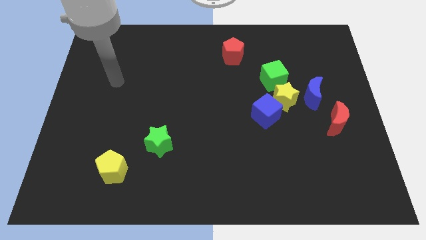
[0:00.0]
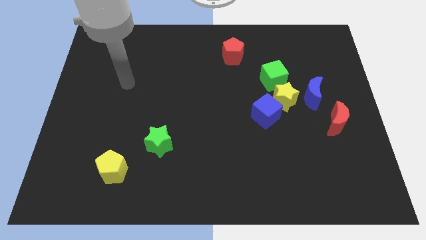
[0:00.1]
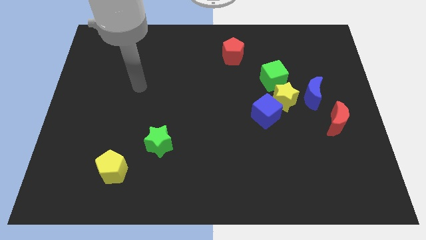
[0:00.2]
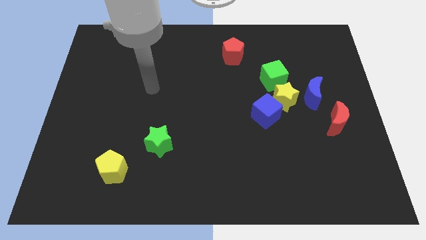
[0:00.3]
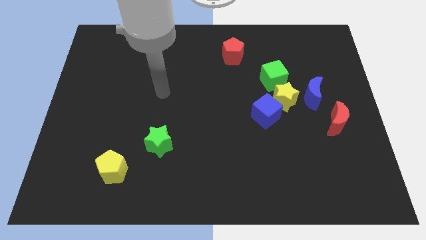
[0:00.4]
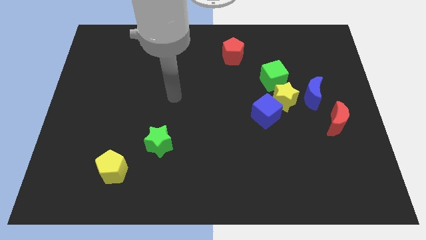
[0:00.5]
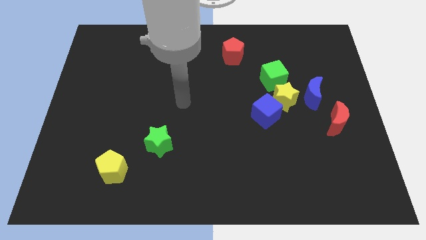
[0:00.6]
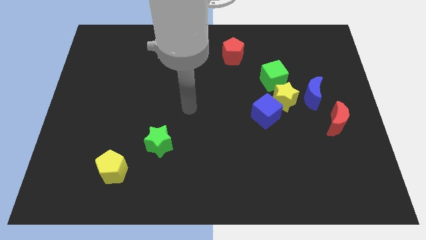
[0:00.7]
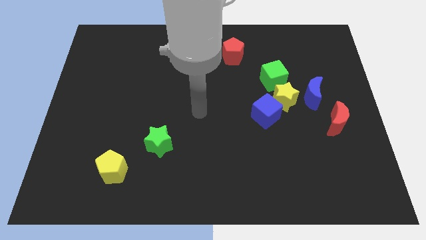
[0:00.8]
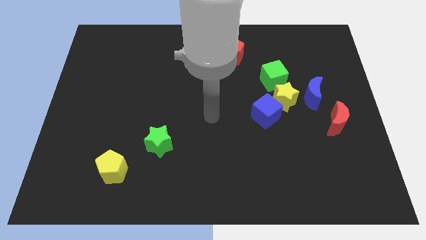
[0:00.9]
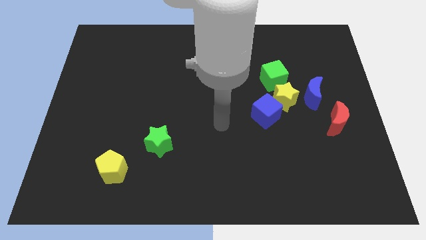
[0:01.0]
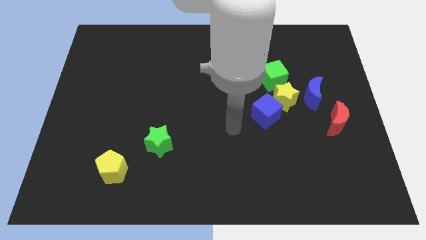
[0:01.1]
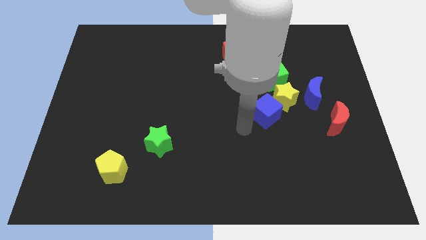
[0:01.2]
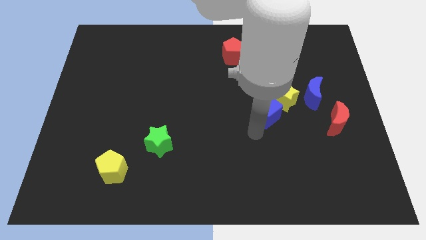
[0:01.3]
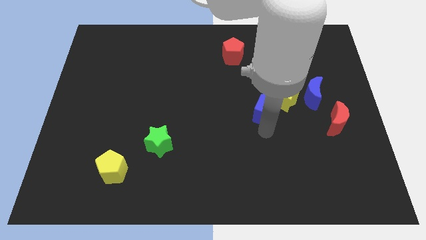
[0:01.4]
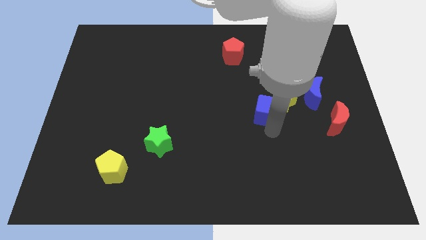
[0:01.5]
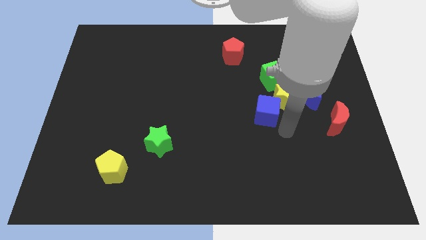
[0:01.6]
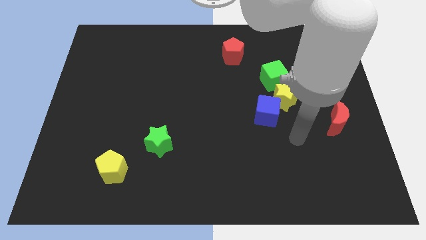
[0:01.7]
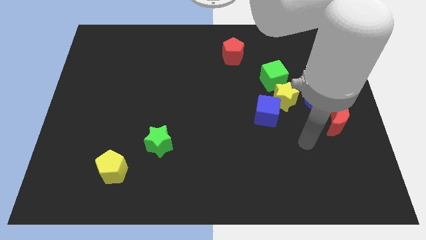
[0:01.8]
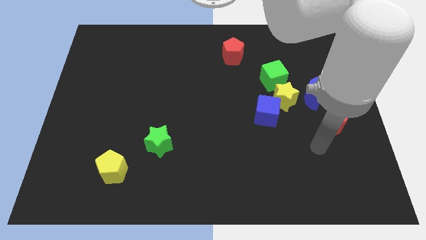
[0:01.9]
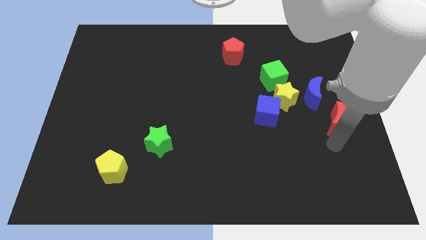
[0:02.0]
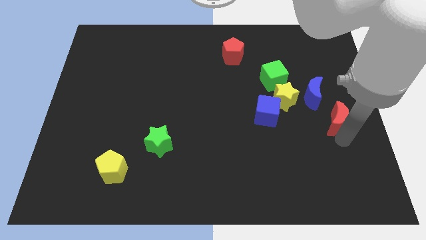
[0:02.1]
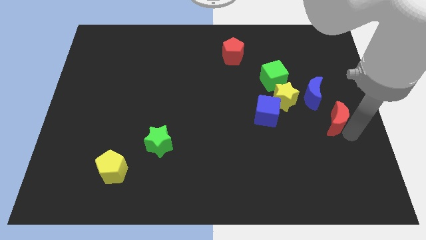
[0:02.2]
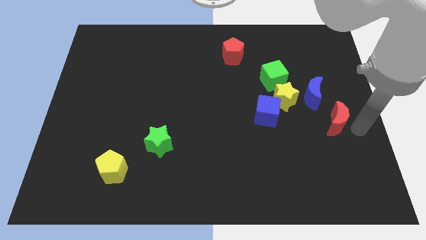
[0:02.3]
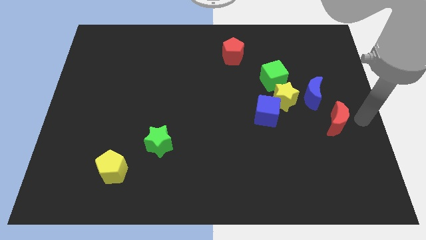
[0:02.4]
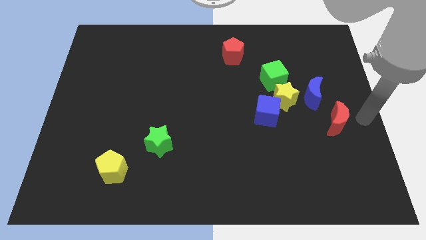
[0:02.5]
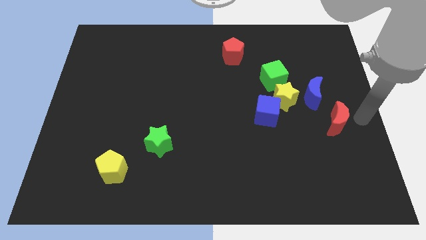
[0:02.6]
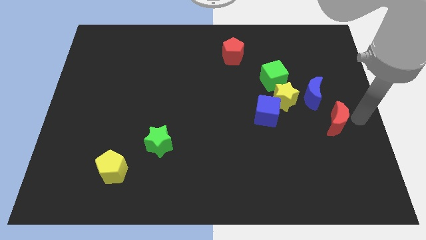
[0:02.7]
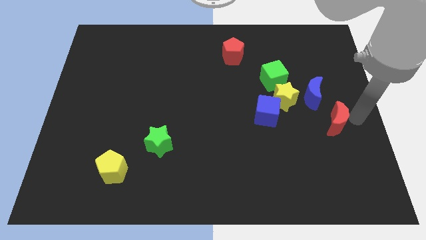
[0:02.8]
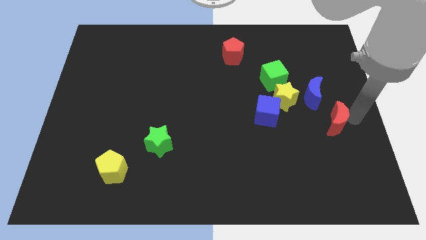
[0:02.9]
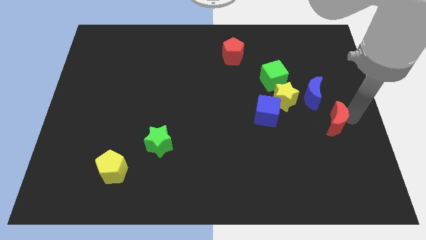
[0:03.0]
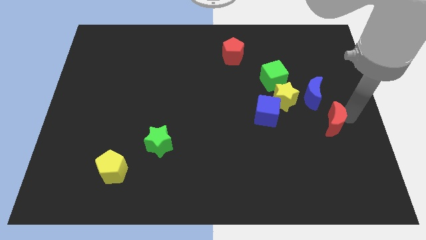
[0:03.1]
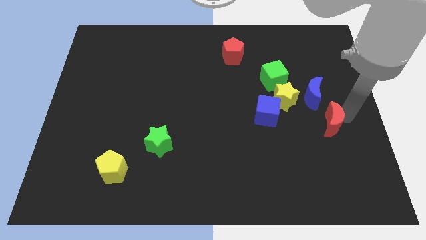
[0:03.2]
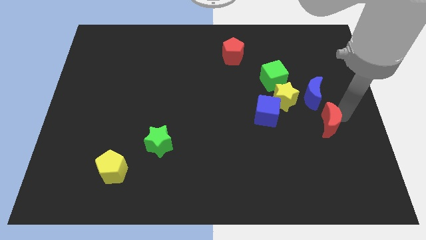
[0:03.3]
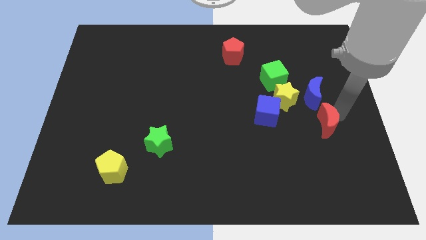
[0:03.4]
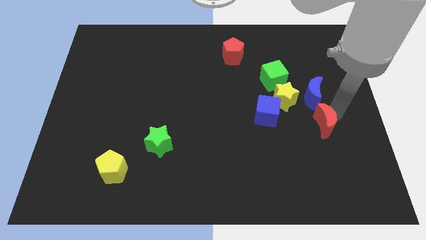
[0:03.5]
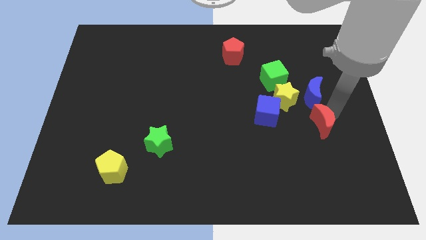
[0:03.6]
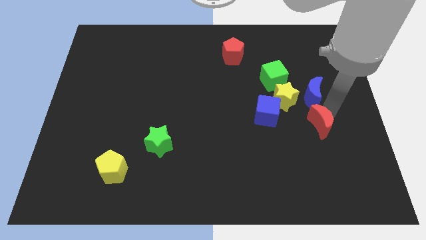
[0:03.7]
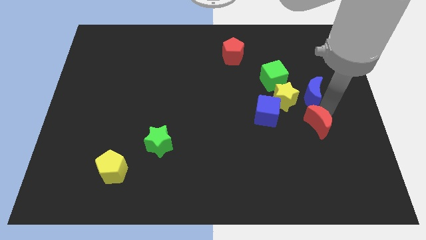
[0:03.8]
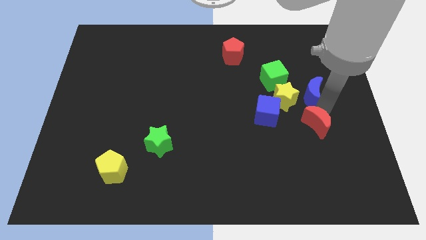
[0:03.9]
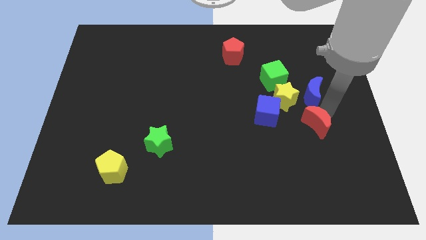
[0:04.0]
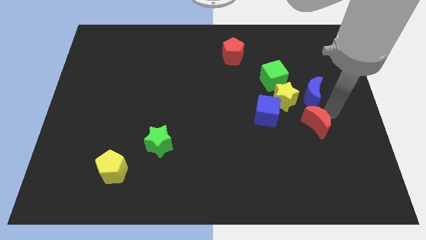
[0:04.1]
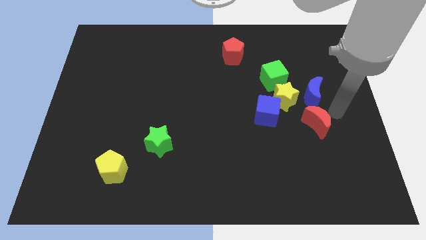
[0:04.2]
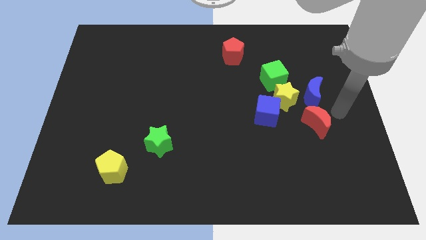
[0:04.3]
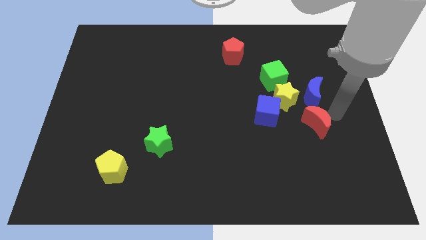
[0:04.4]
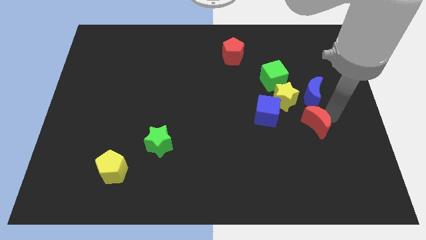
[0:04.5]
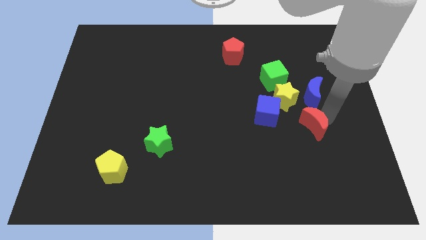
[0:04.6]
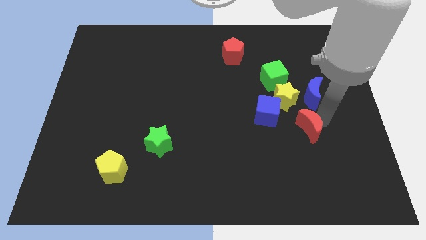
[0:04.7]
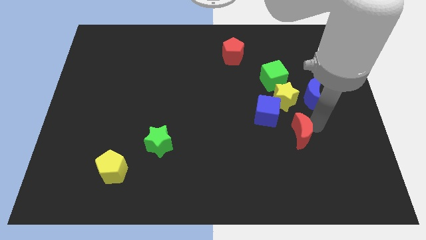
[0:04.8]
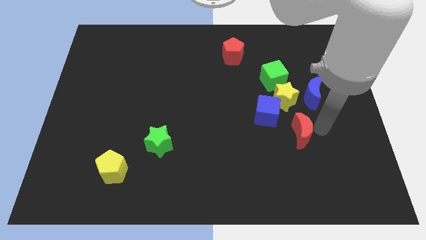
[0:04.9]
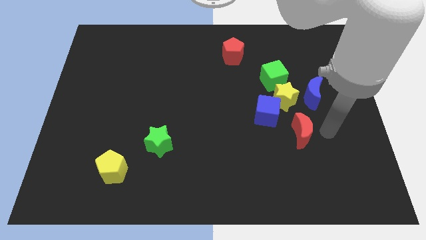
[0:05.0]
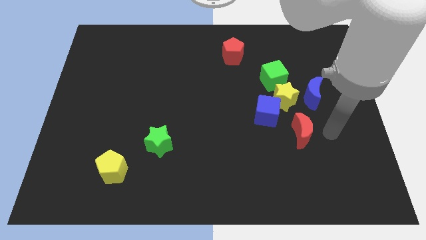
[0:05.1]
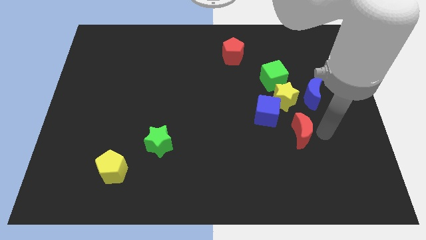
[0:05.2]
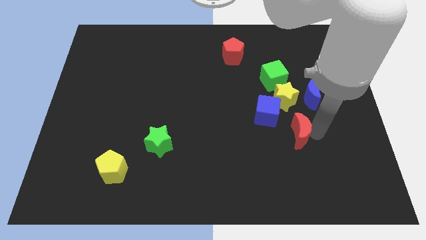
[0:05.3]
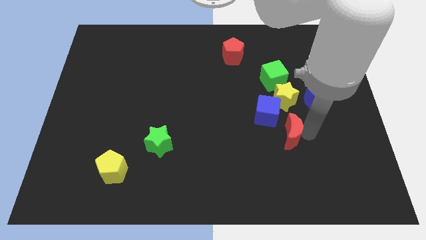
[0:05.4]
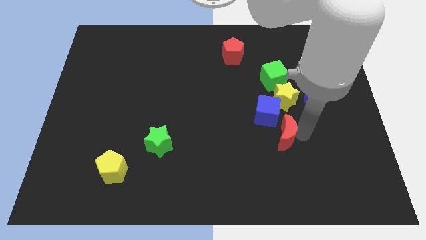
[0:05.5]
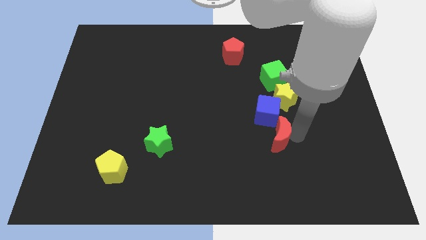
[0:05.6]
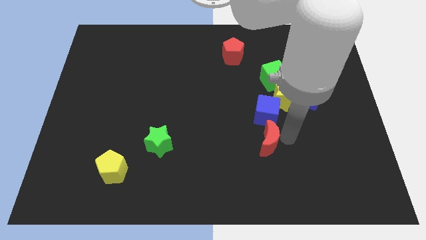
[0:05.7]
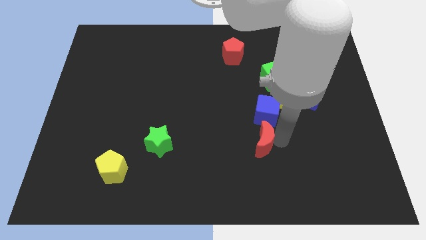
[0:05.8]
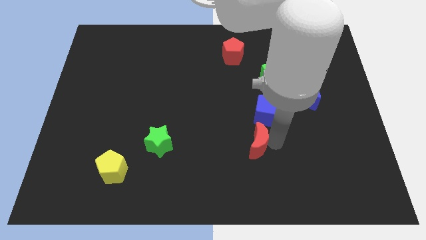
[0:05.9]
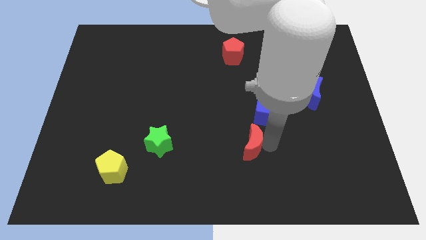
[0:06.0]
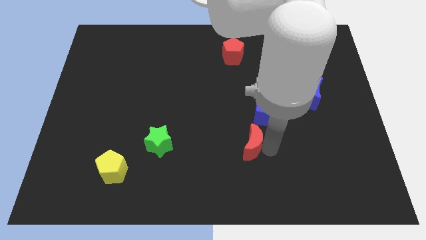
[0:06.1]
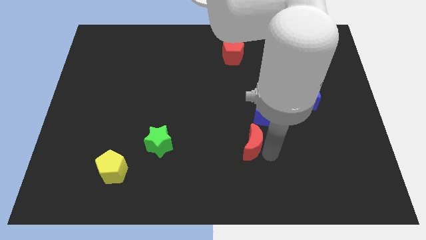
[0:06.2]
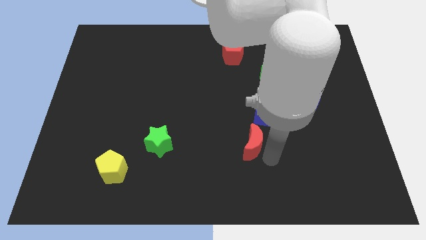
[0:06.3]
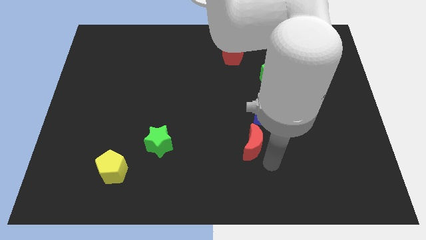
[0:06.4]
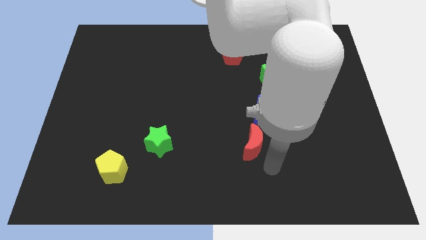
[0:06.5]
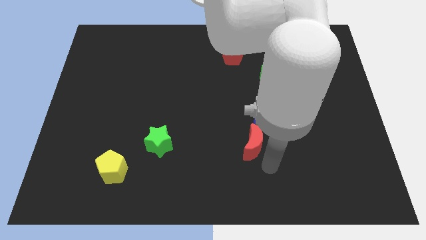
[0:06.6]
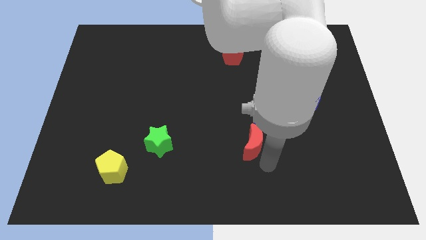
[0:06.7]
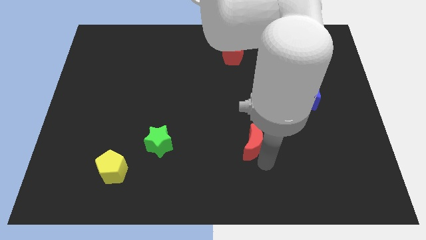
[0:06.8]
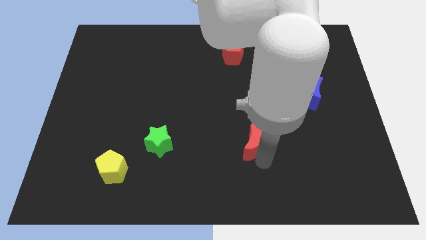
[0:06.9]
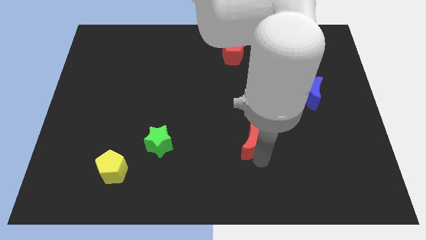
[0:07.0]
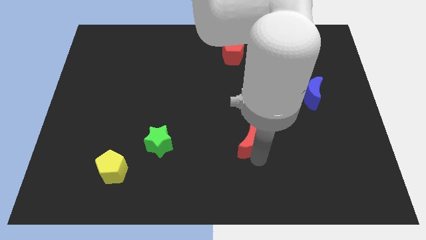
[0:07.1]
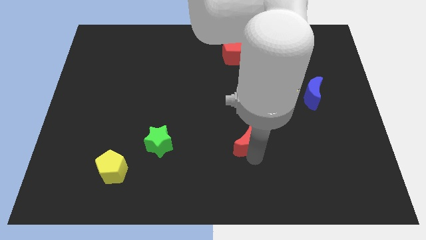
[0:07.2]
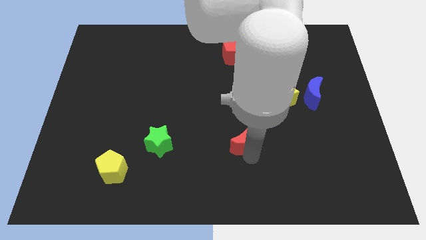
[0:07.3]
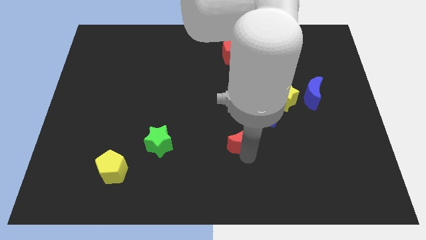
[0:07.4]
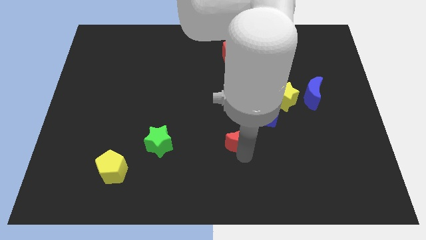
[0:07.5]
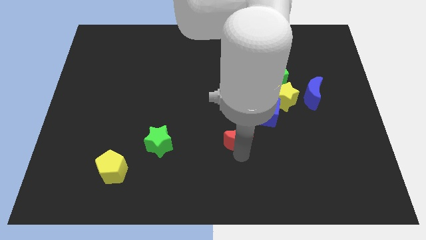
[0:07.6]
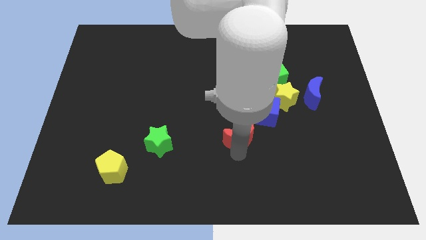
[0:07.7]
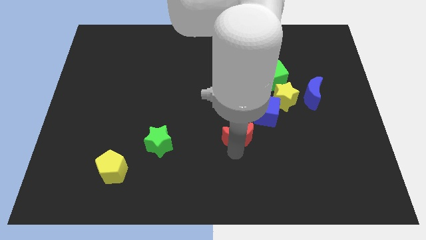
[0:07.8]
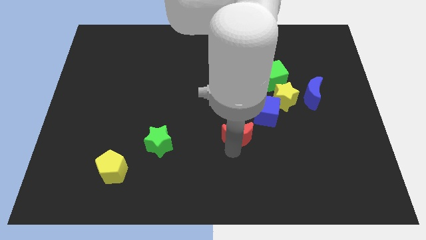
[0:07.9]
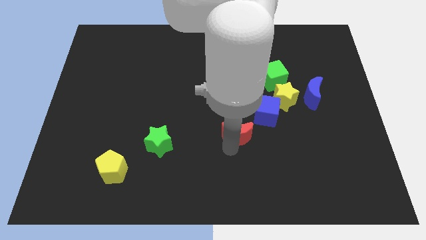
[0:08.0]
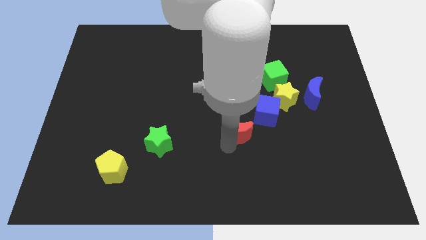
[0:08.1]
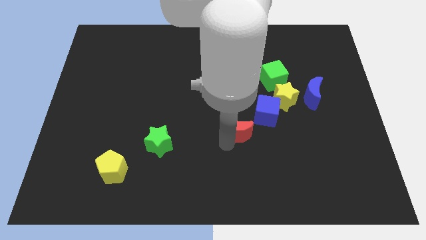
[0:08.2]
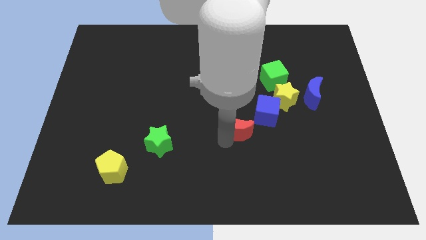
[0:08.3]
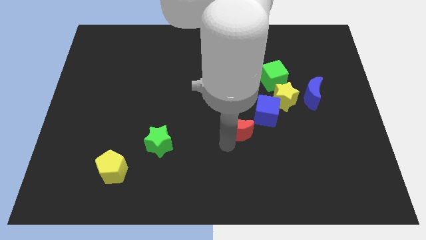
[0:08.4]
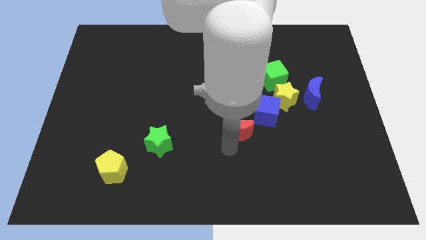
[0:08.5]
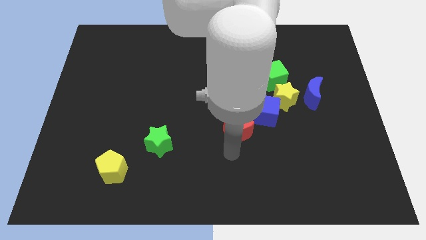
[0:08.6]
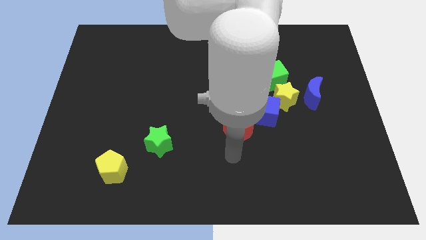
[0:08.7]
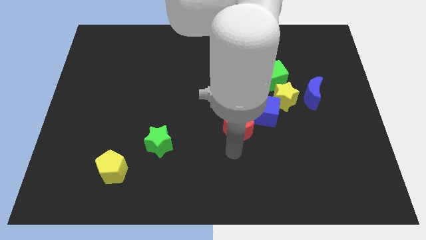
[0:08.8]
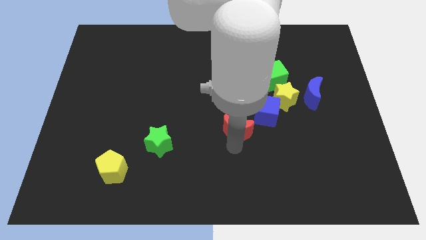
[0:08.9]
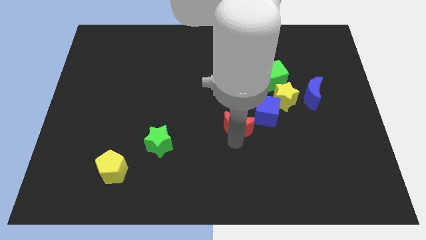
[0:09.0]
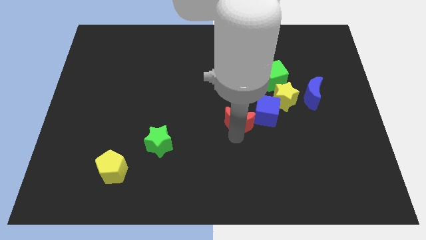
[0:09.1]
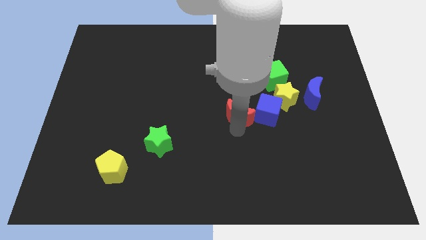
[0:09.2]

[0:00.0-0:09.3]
move the red moon to the left of the yellow star
